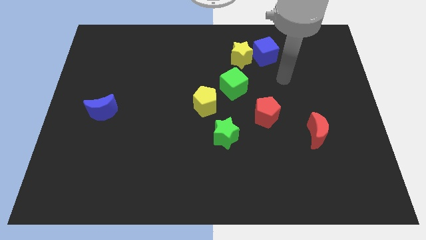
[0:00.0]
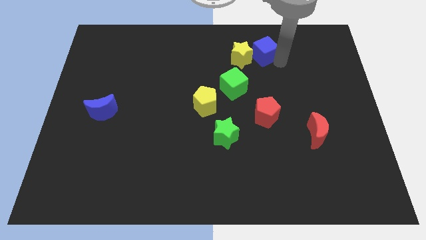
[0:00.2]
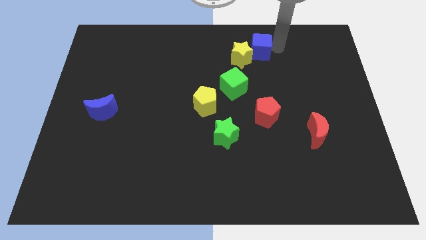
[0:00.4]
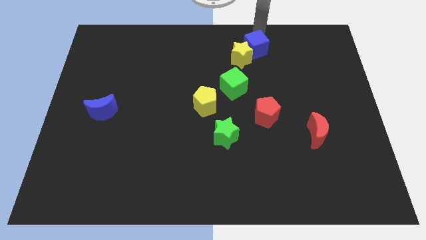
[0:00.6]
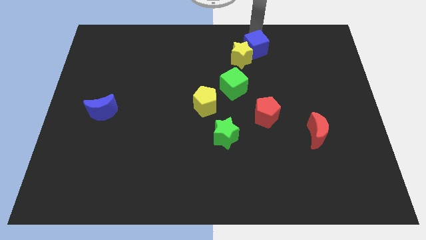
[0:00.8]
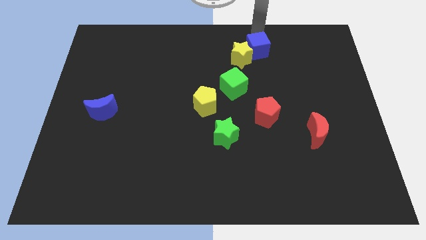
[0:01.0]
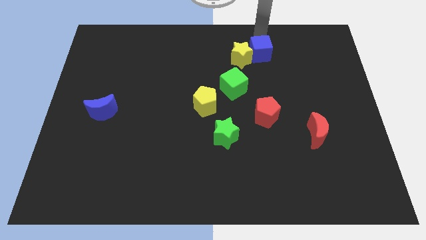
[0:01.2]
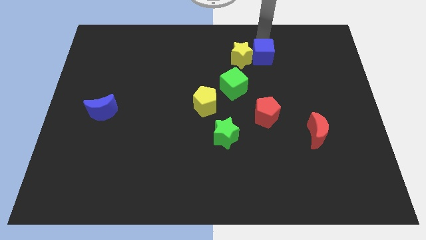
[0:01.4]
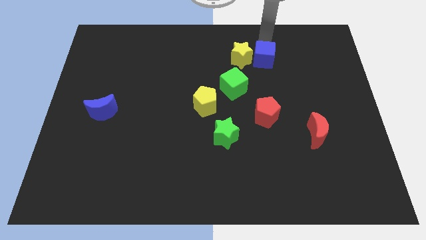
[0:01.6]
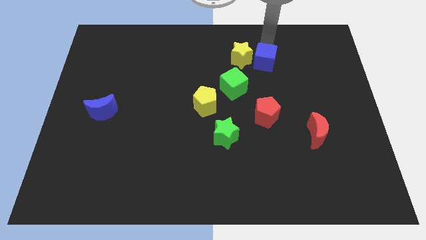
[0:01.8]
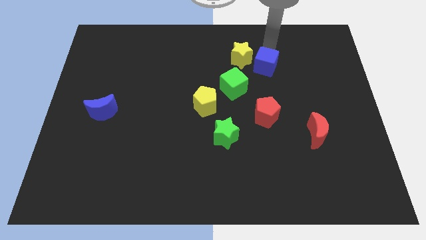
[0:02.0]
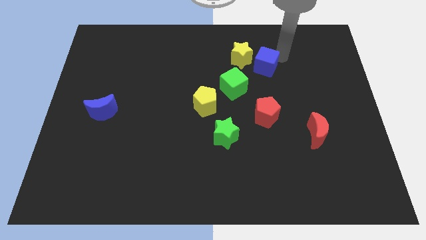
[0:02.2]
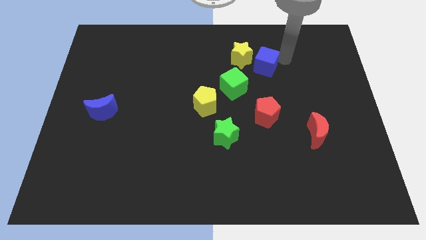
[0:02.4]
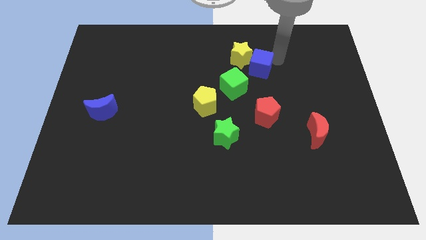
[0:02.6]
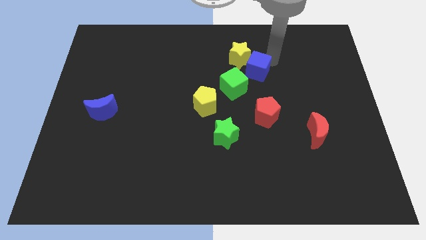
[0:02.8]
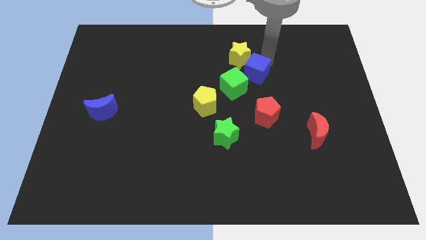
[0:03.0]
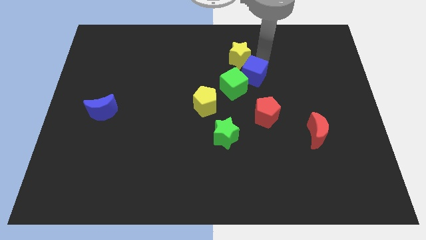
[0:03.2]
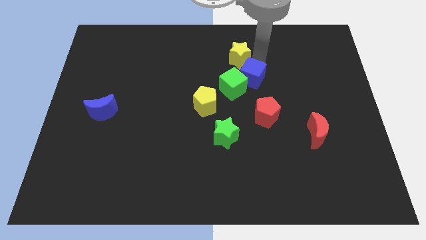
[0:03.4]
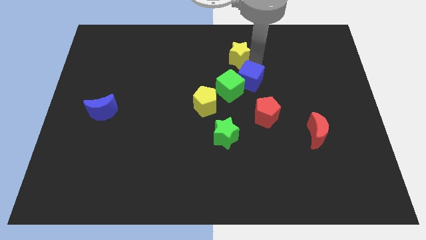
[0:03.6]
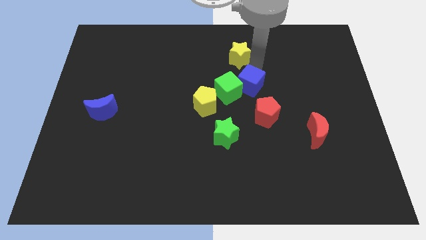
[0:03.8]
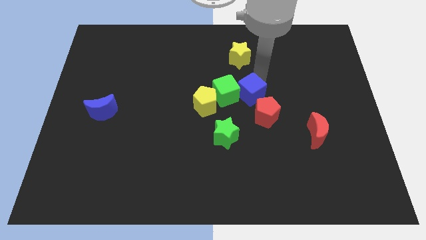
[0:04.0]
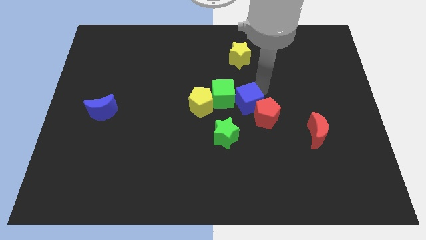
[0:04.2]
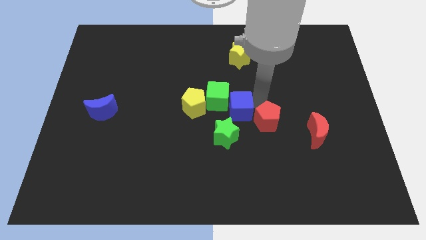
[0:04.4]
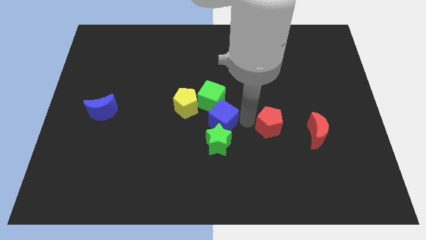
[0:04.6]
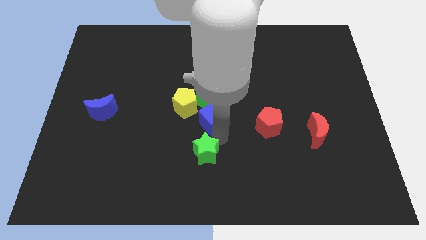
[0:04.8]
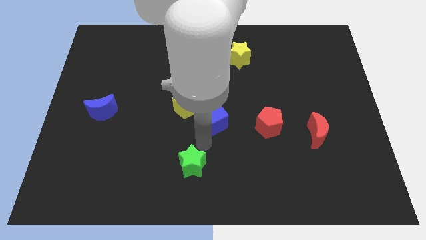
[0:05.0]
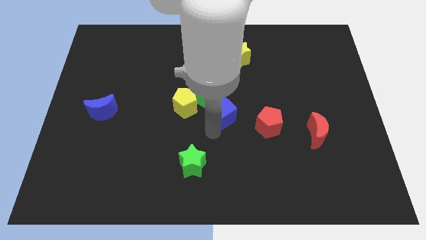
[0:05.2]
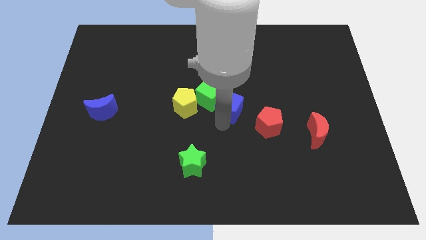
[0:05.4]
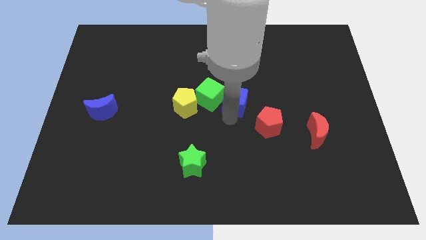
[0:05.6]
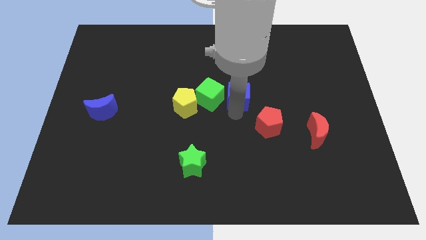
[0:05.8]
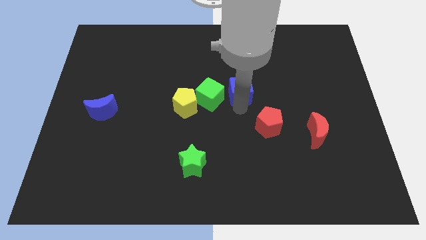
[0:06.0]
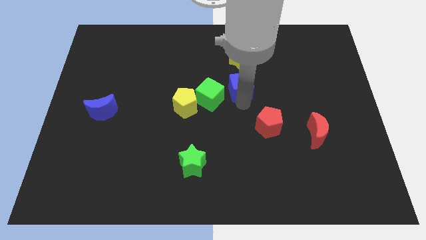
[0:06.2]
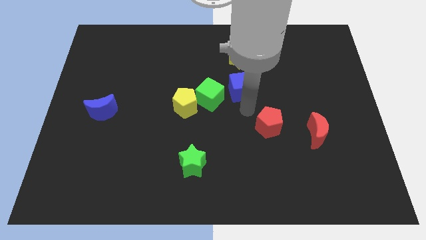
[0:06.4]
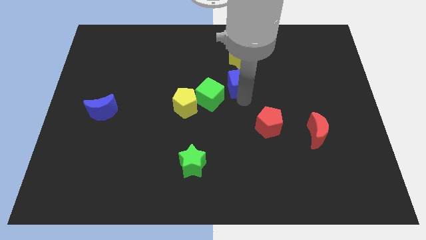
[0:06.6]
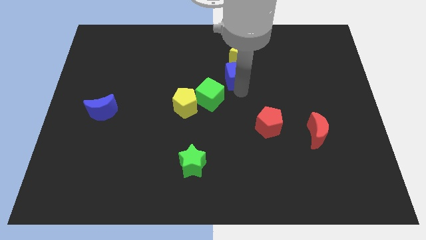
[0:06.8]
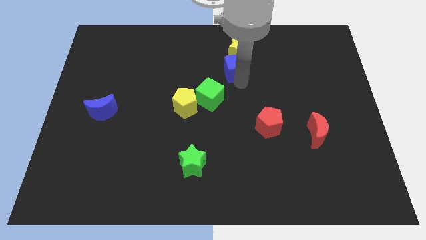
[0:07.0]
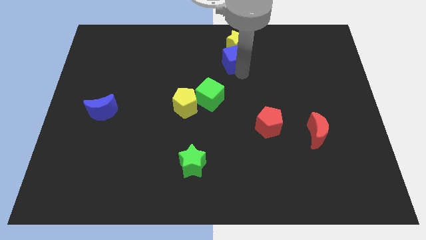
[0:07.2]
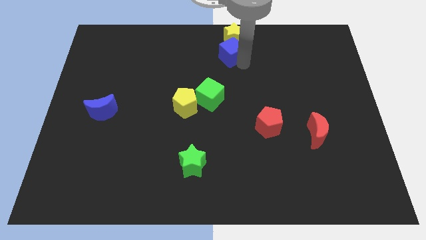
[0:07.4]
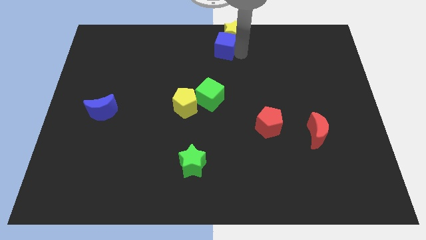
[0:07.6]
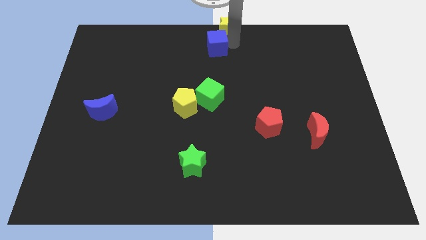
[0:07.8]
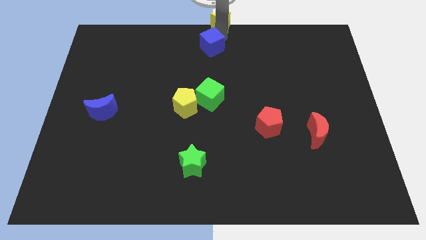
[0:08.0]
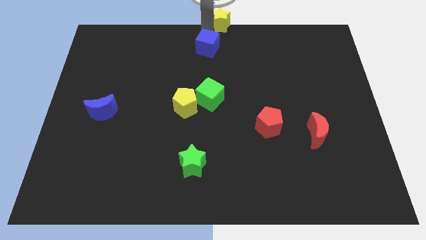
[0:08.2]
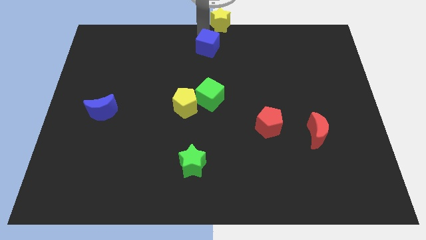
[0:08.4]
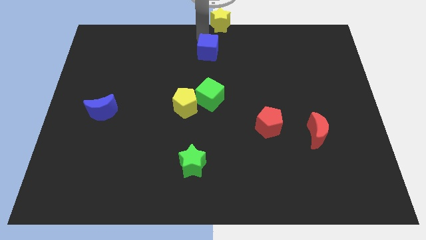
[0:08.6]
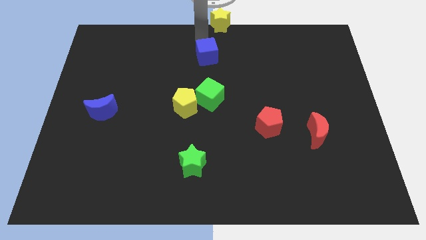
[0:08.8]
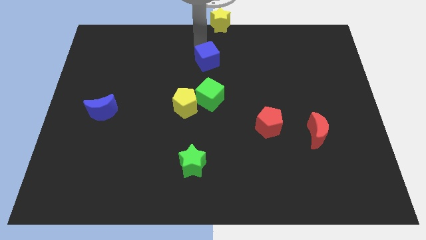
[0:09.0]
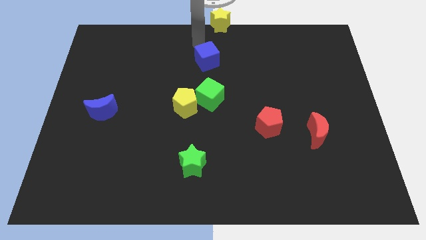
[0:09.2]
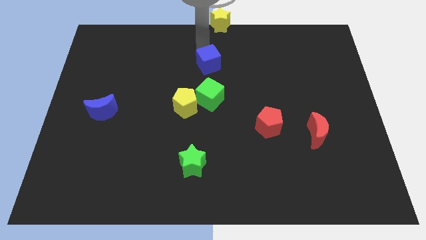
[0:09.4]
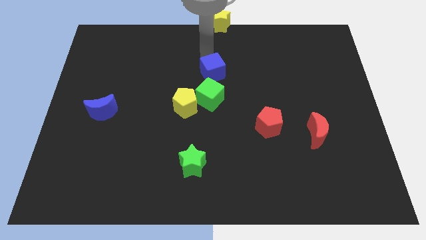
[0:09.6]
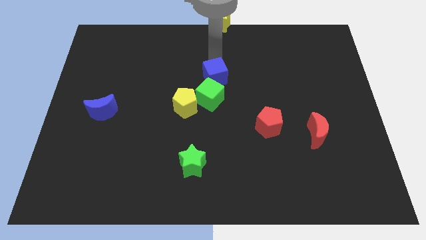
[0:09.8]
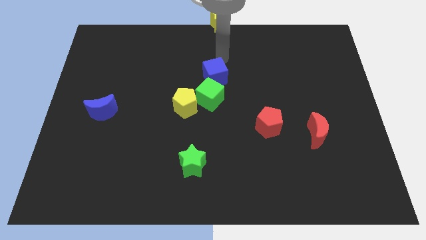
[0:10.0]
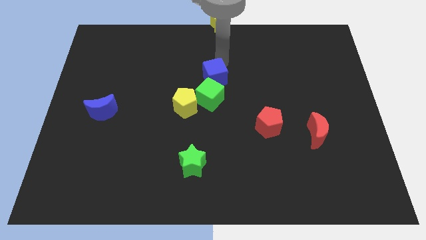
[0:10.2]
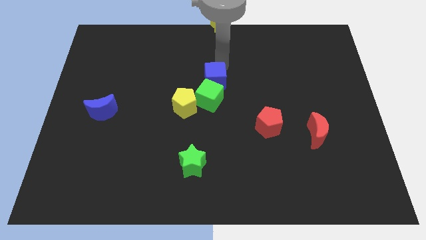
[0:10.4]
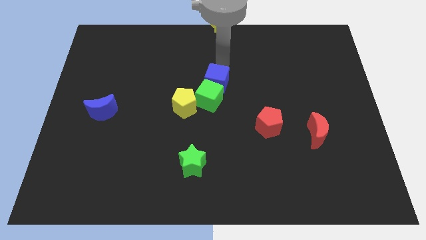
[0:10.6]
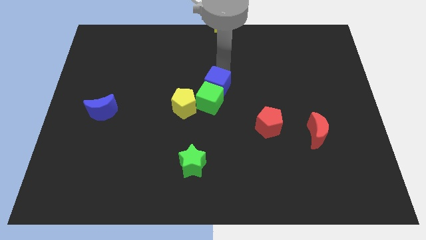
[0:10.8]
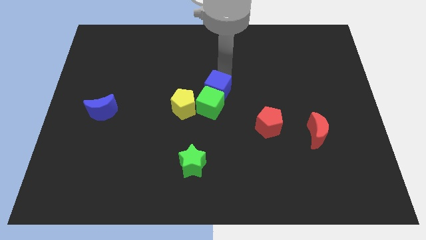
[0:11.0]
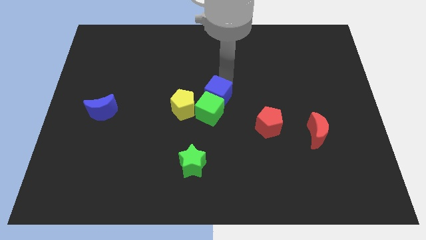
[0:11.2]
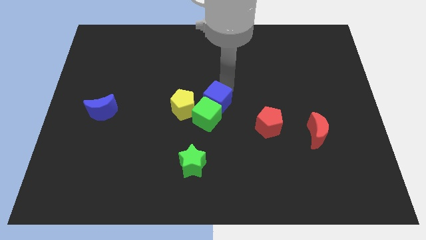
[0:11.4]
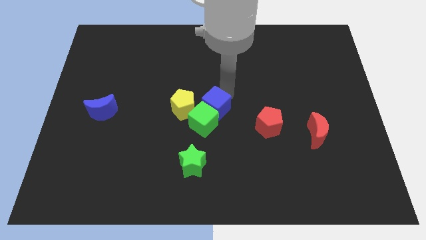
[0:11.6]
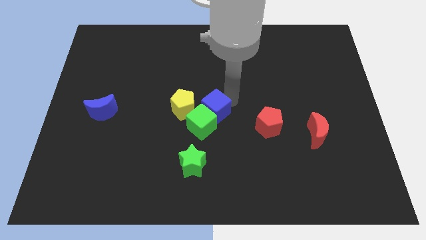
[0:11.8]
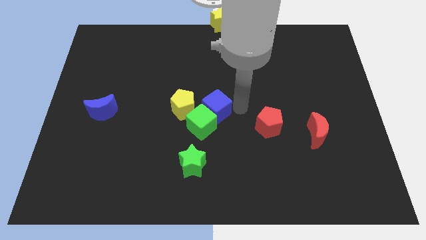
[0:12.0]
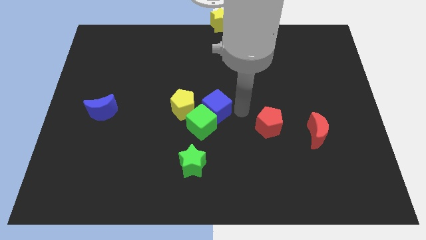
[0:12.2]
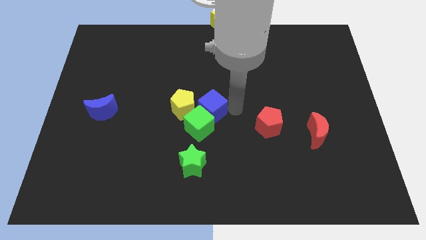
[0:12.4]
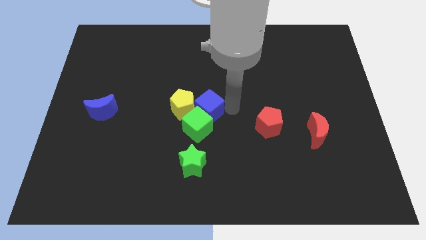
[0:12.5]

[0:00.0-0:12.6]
slide the blue cube next to the yellow pentagon

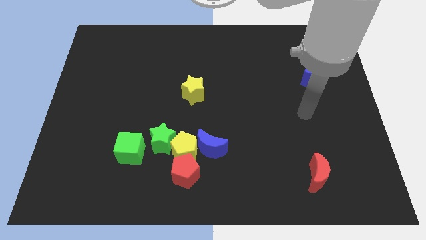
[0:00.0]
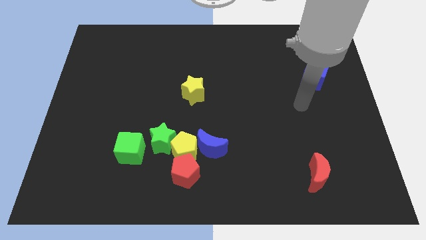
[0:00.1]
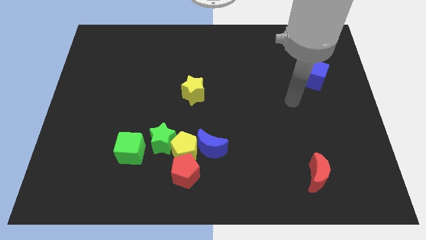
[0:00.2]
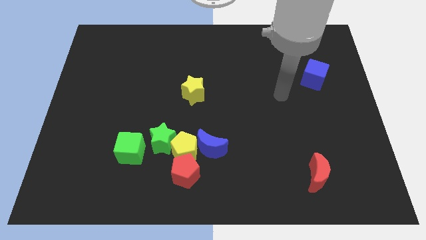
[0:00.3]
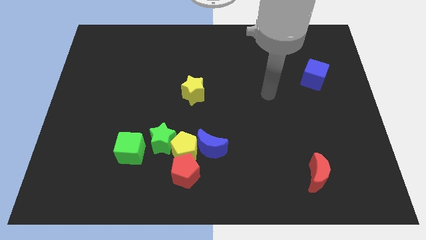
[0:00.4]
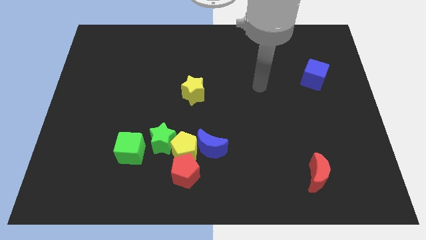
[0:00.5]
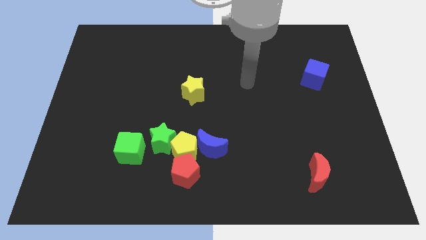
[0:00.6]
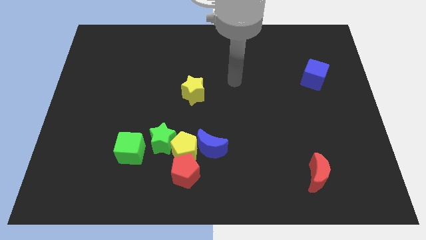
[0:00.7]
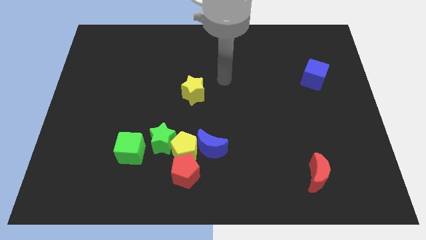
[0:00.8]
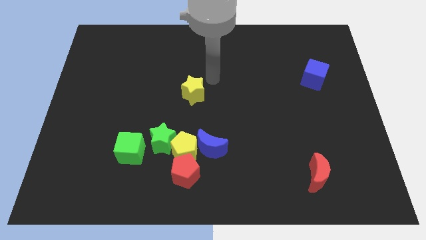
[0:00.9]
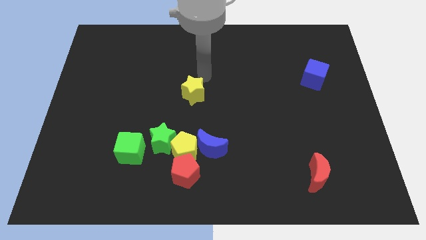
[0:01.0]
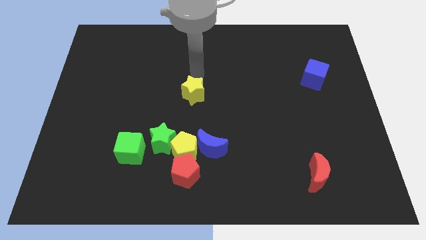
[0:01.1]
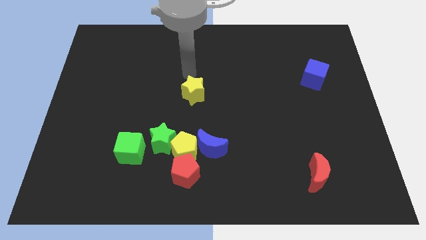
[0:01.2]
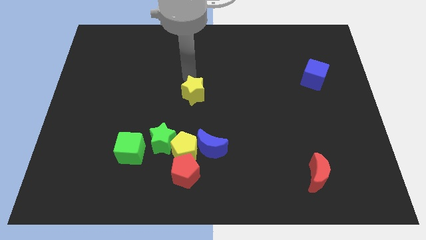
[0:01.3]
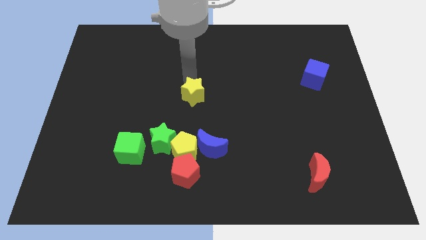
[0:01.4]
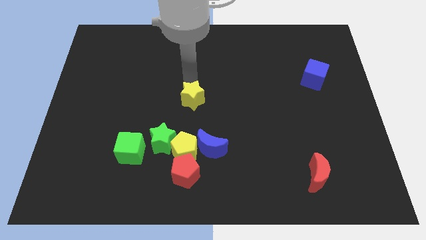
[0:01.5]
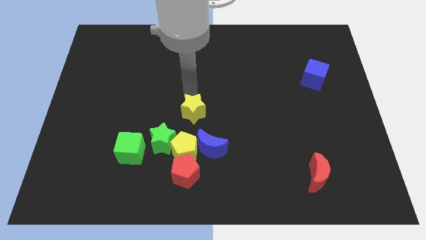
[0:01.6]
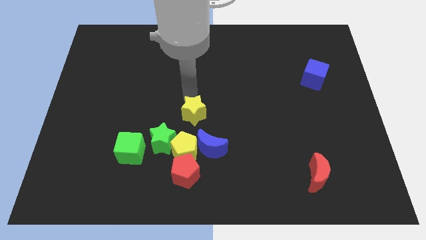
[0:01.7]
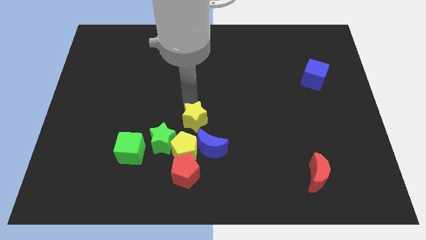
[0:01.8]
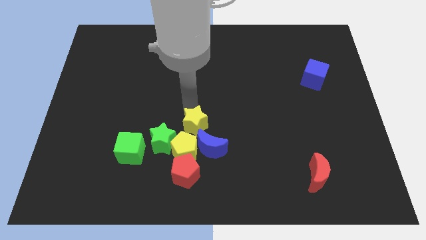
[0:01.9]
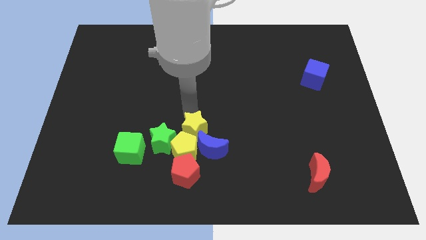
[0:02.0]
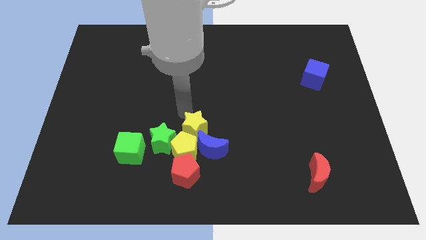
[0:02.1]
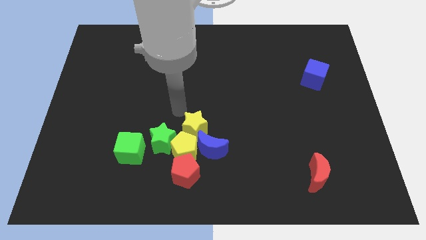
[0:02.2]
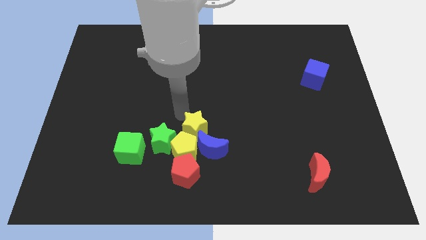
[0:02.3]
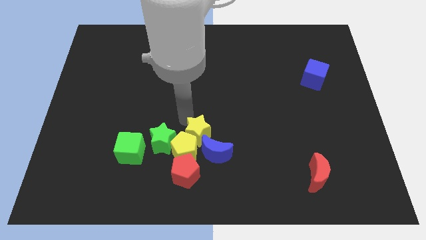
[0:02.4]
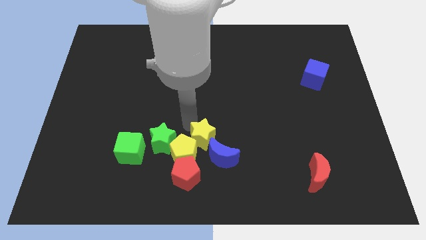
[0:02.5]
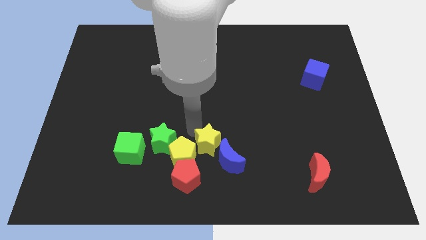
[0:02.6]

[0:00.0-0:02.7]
move the yellow star next to the blue moon
